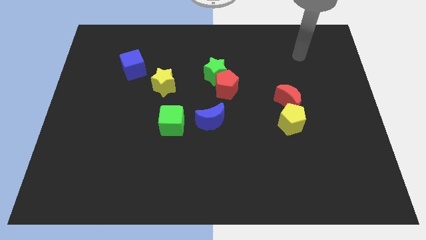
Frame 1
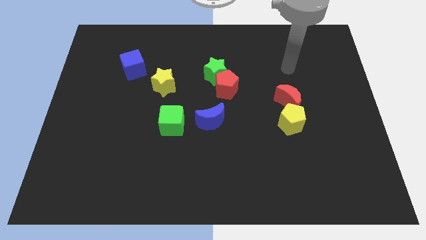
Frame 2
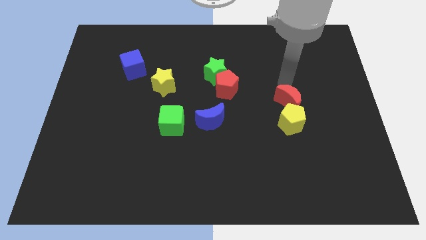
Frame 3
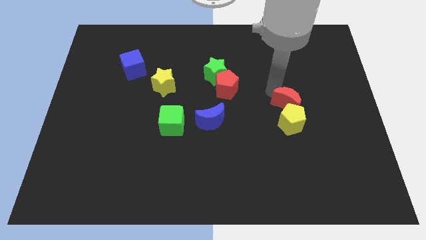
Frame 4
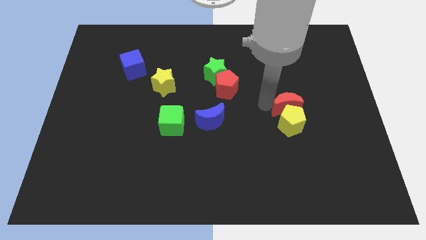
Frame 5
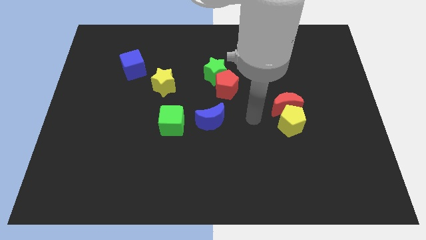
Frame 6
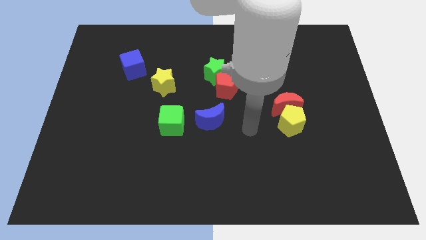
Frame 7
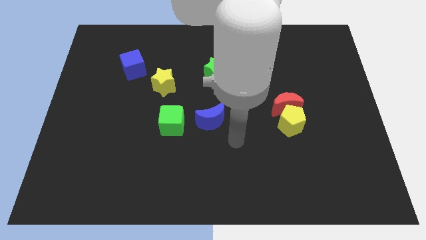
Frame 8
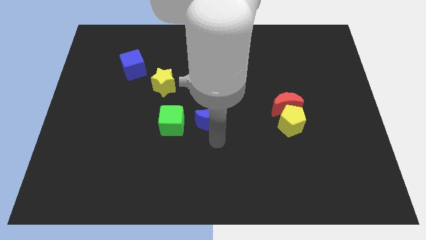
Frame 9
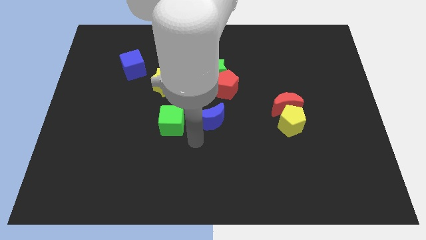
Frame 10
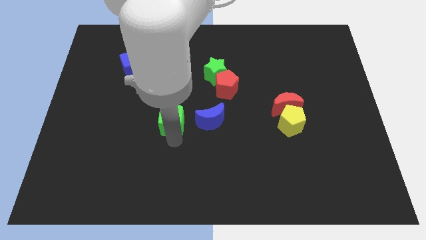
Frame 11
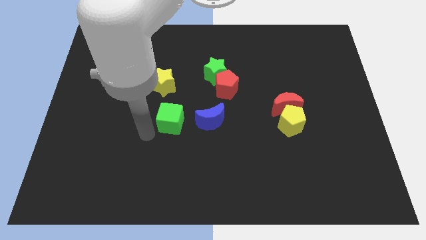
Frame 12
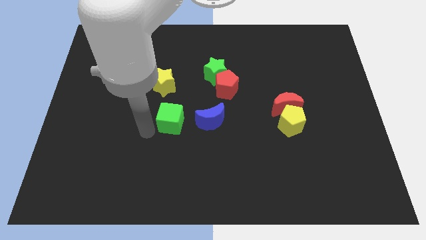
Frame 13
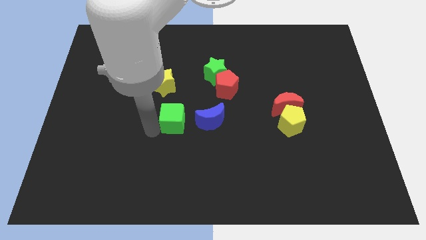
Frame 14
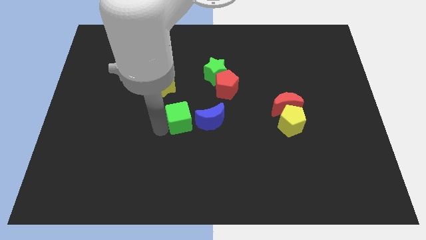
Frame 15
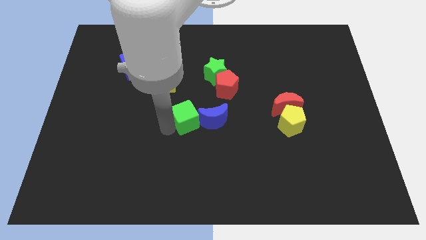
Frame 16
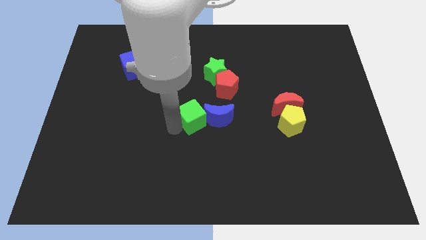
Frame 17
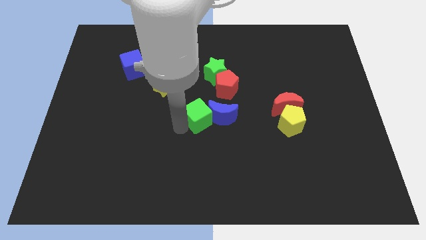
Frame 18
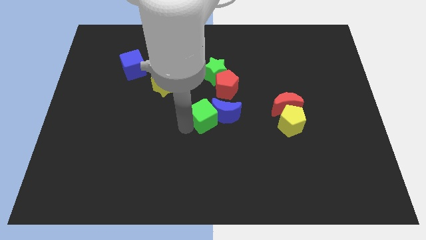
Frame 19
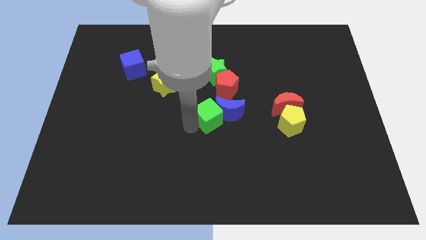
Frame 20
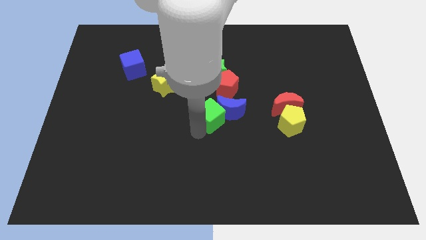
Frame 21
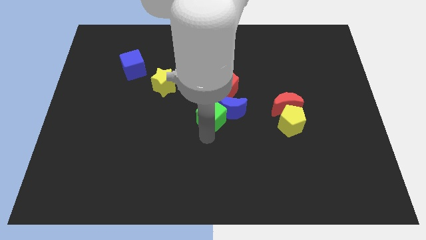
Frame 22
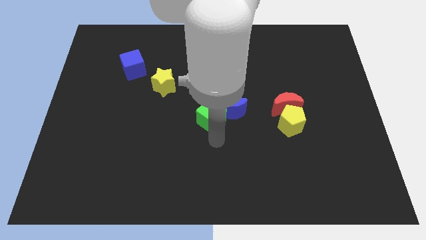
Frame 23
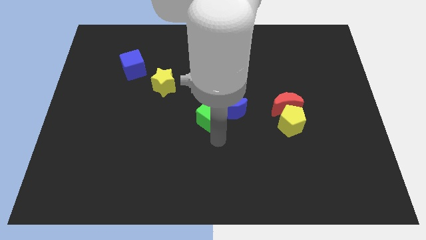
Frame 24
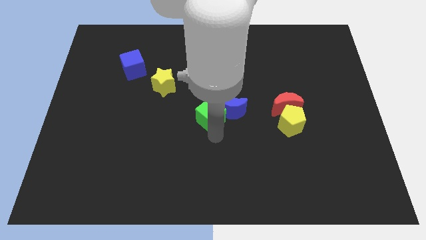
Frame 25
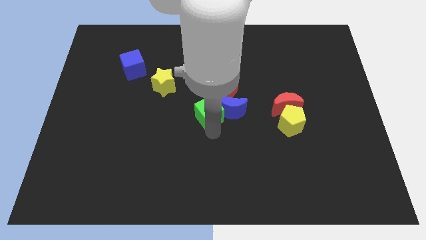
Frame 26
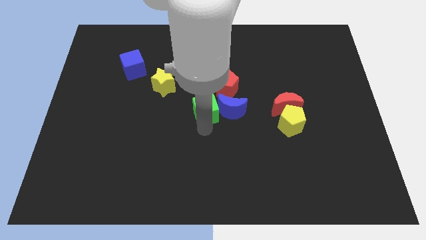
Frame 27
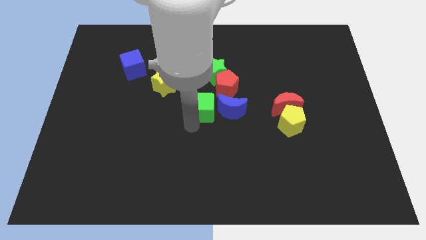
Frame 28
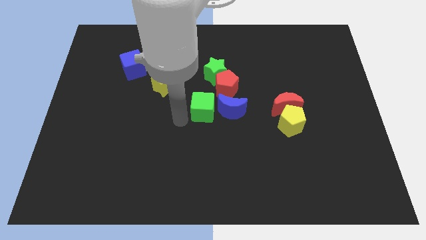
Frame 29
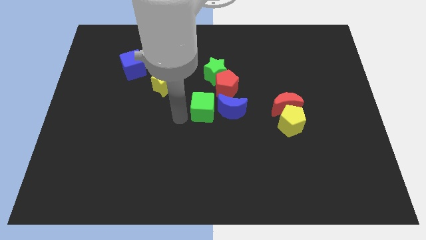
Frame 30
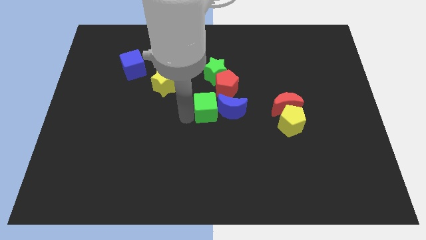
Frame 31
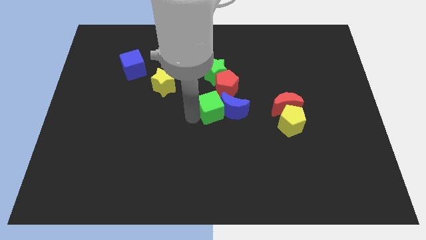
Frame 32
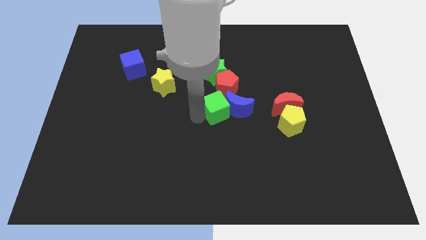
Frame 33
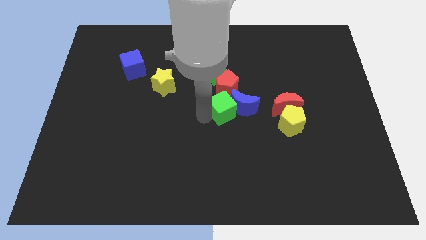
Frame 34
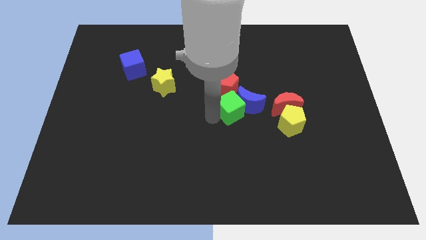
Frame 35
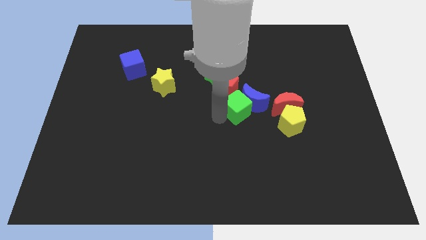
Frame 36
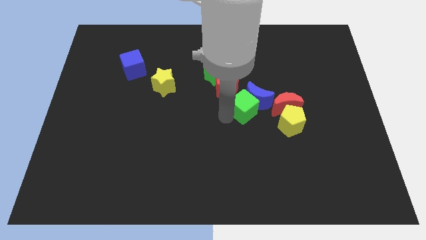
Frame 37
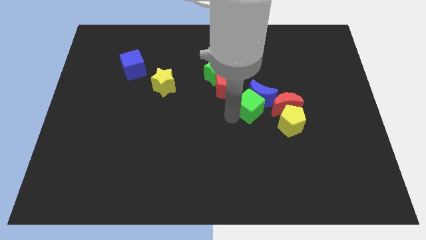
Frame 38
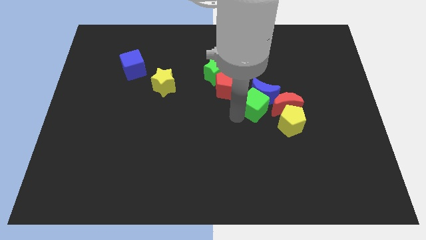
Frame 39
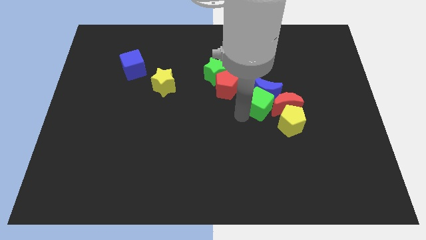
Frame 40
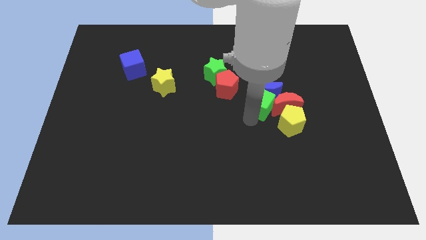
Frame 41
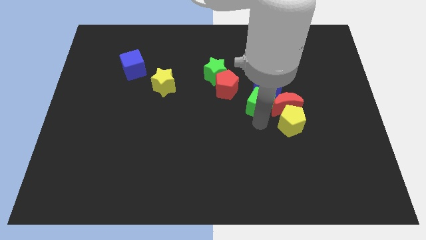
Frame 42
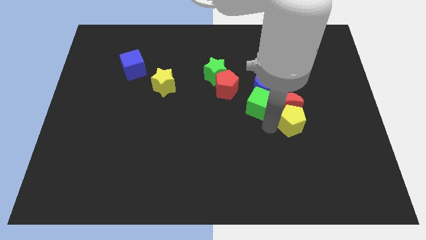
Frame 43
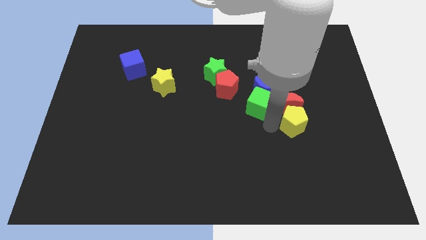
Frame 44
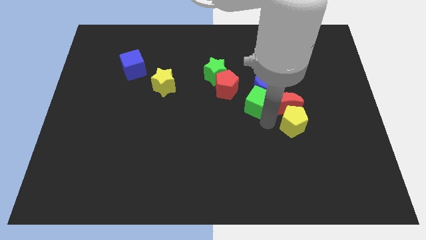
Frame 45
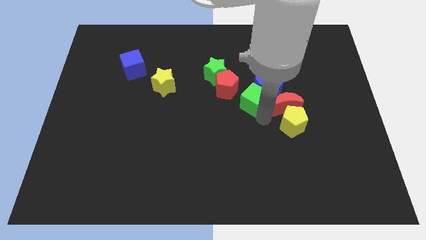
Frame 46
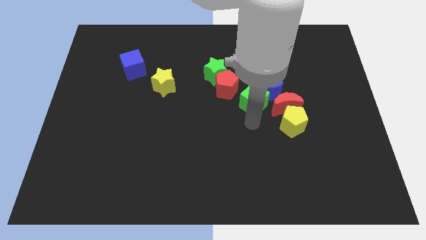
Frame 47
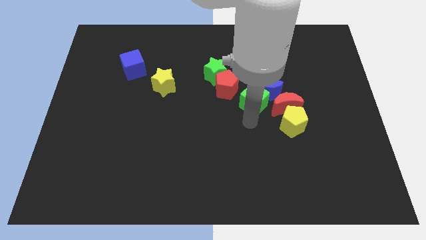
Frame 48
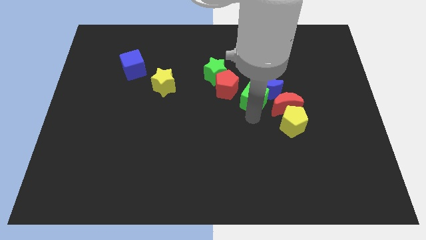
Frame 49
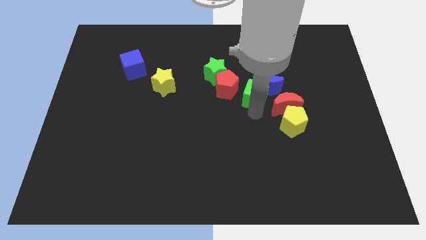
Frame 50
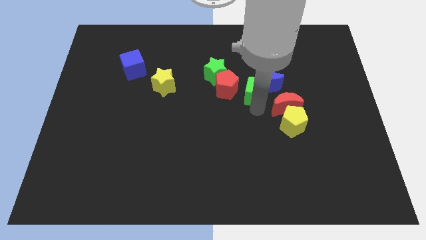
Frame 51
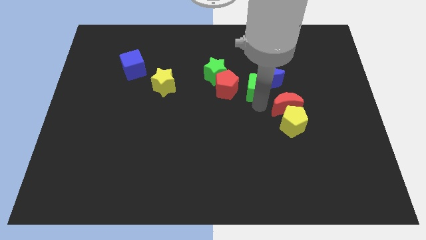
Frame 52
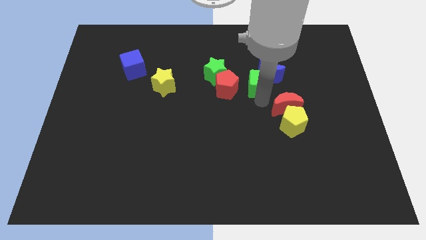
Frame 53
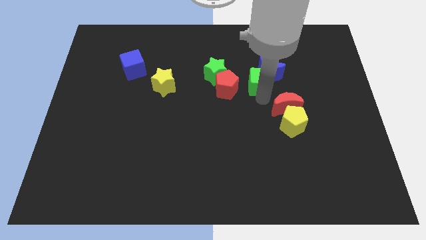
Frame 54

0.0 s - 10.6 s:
push the green cube to the top right side of the red pentagon

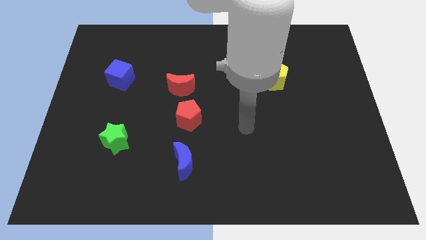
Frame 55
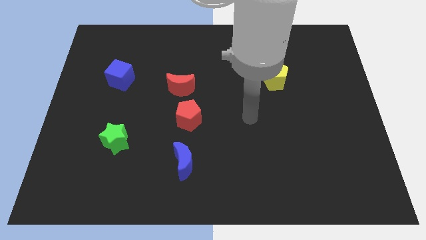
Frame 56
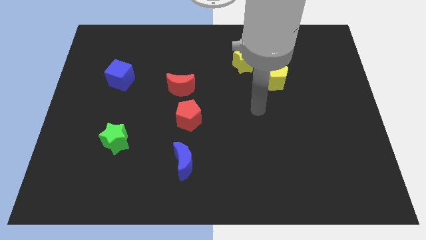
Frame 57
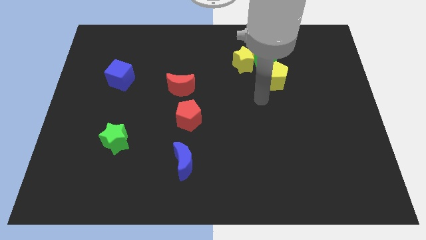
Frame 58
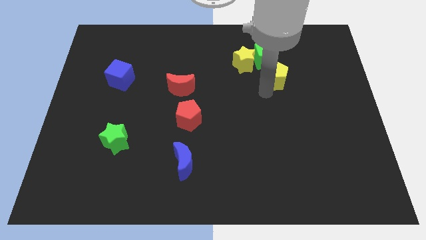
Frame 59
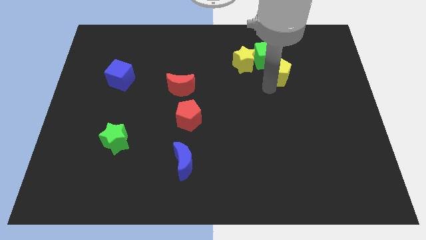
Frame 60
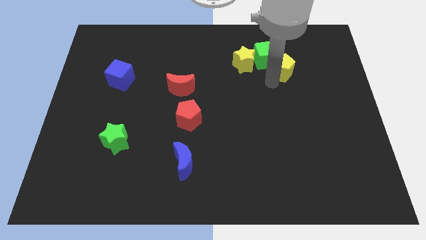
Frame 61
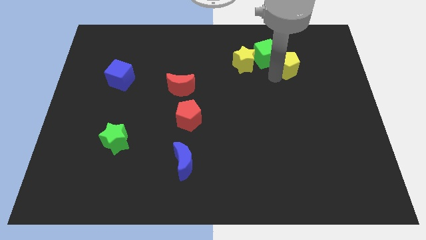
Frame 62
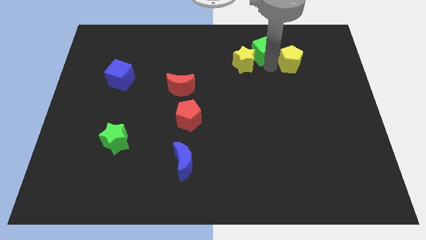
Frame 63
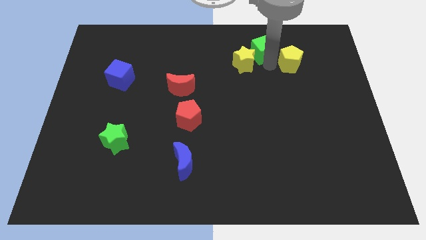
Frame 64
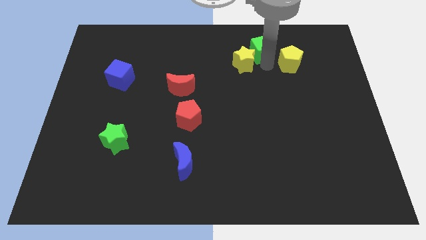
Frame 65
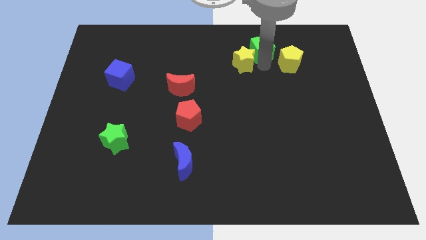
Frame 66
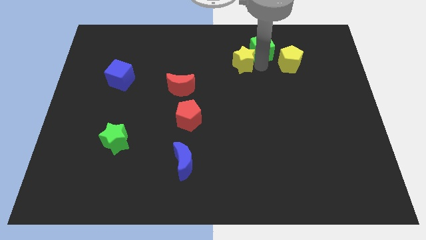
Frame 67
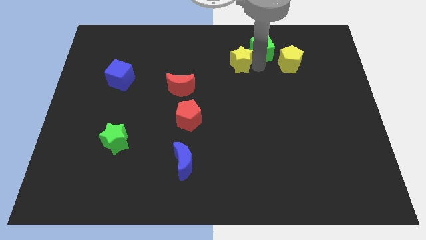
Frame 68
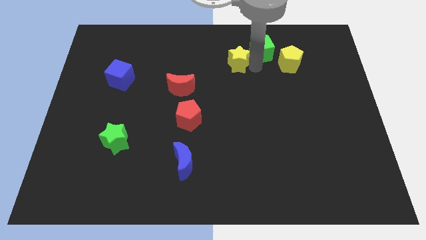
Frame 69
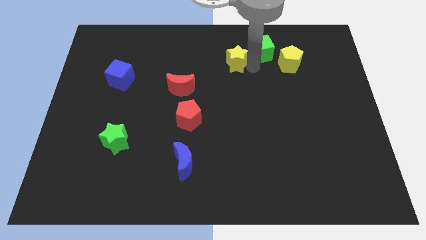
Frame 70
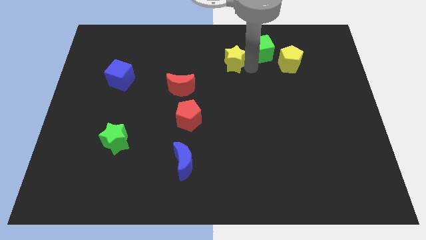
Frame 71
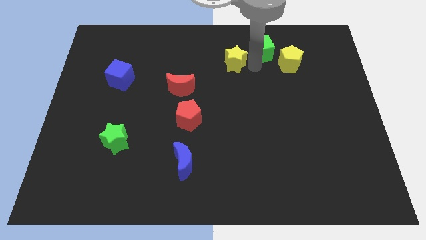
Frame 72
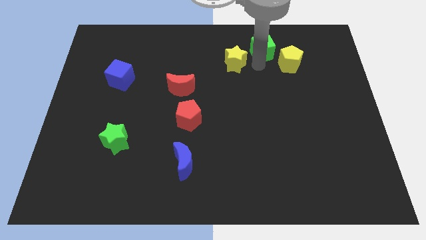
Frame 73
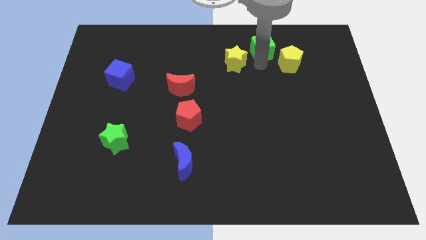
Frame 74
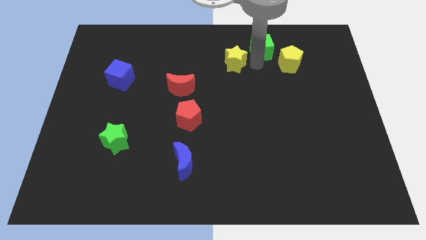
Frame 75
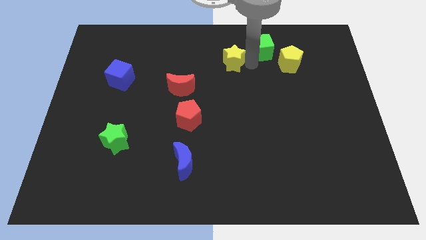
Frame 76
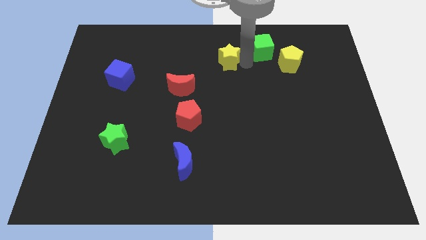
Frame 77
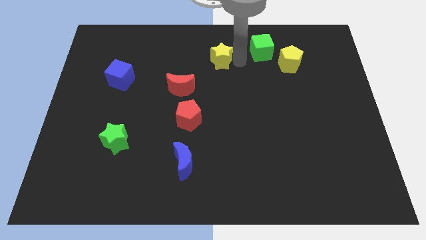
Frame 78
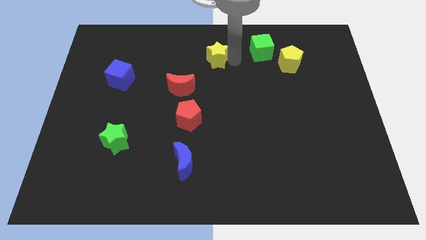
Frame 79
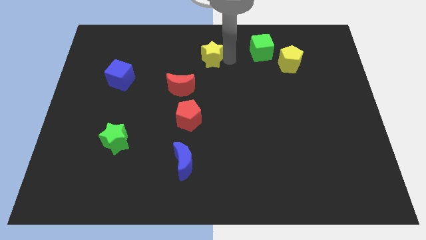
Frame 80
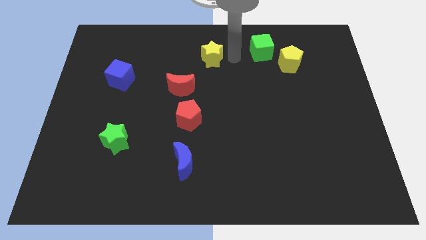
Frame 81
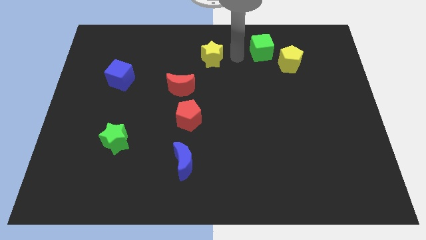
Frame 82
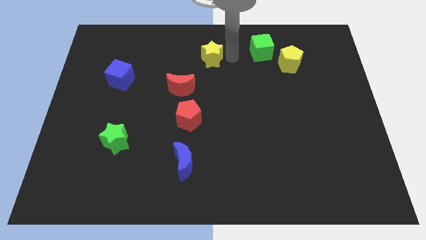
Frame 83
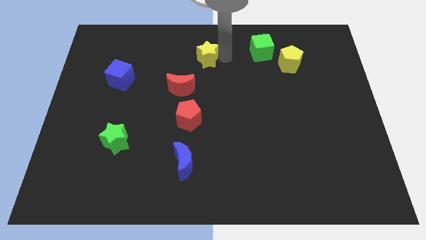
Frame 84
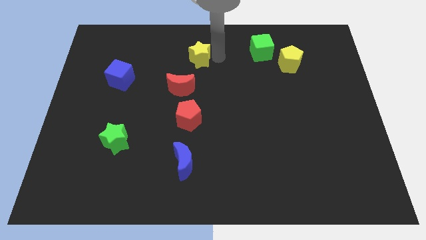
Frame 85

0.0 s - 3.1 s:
slide the yellow star to the top side of the red moon
